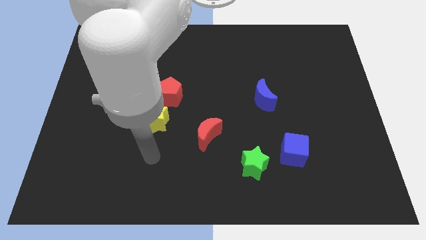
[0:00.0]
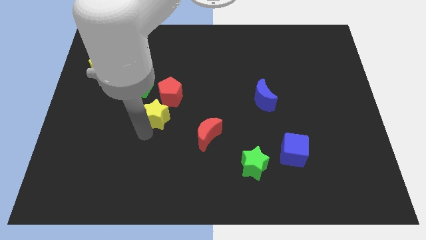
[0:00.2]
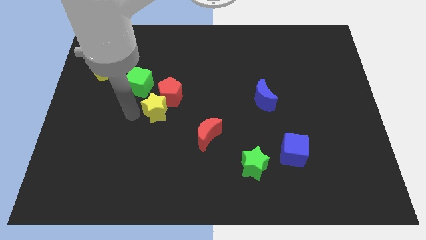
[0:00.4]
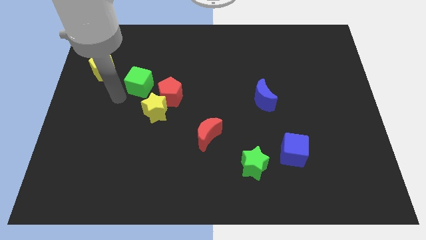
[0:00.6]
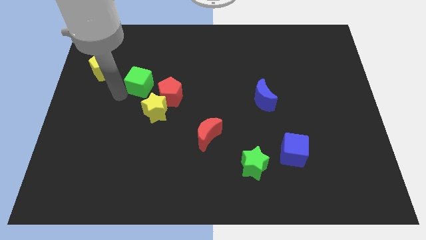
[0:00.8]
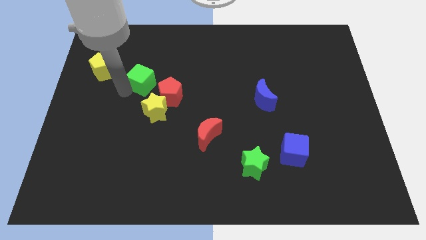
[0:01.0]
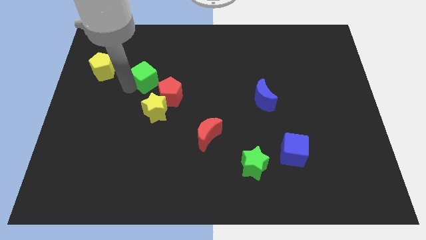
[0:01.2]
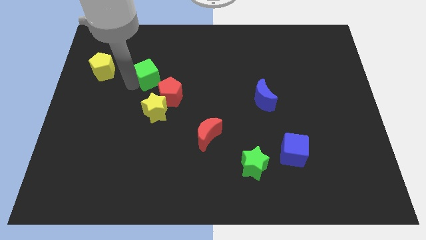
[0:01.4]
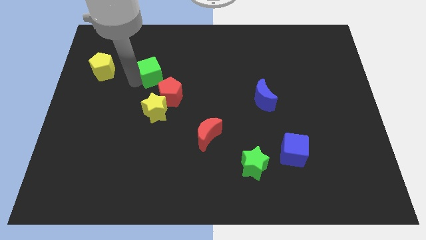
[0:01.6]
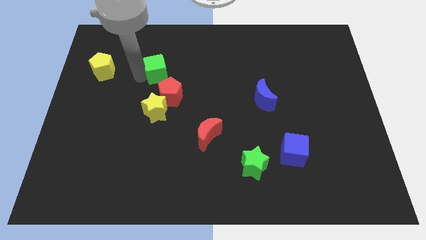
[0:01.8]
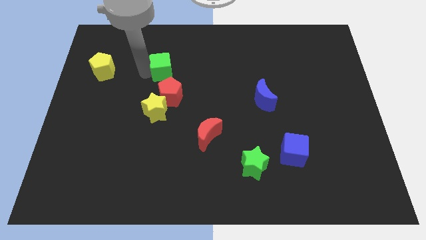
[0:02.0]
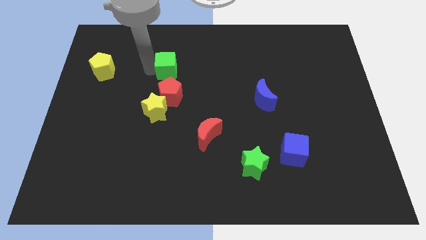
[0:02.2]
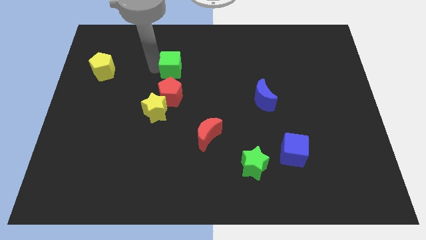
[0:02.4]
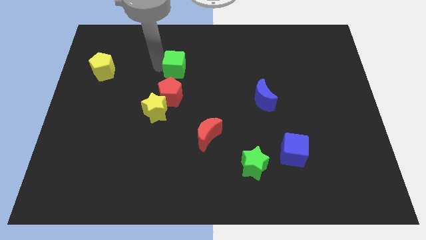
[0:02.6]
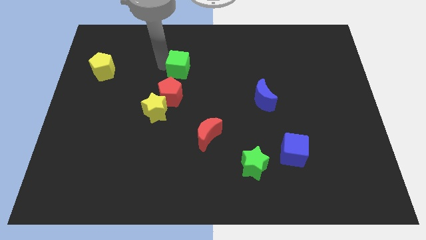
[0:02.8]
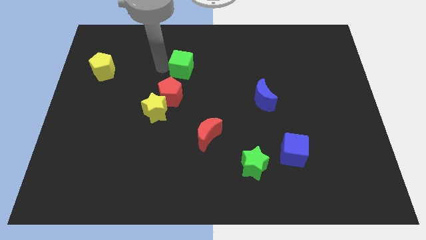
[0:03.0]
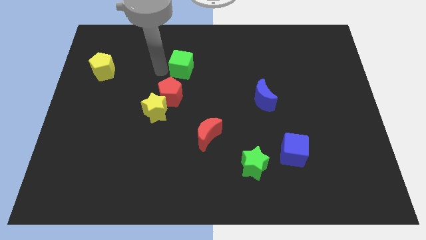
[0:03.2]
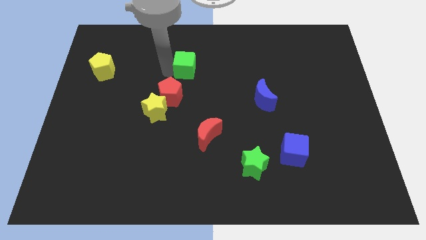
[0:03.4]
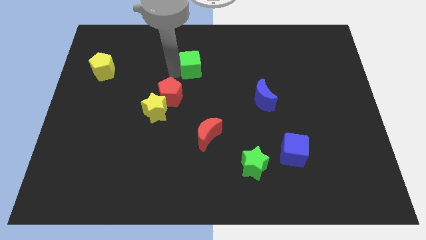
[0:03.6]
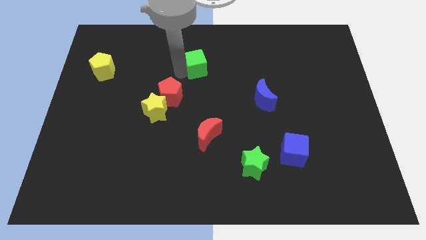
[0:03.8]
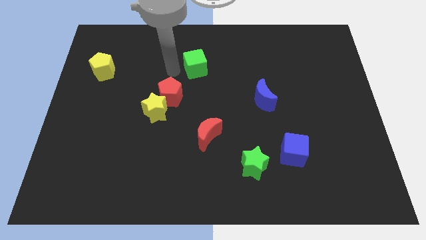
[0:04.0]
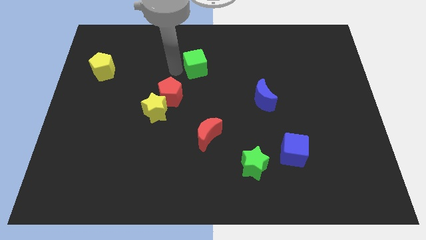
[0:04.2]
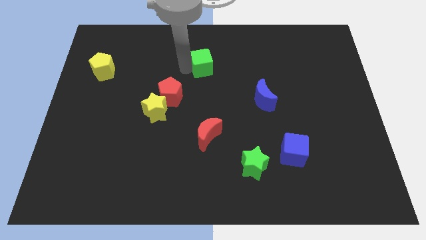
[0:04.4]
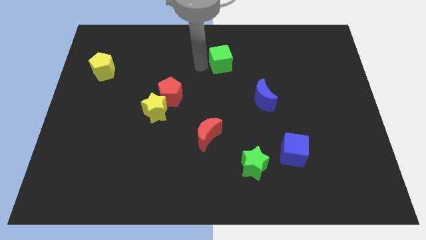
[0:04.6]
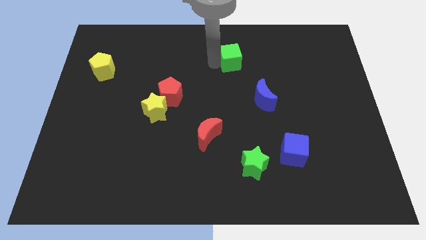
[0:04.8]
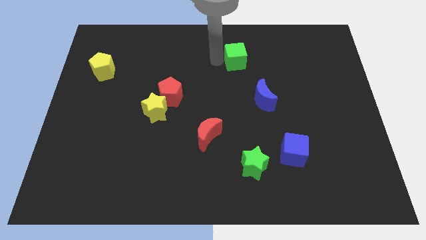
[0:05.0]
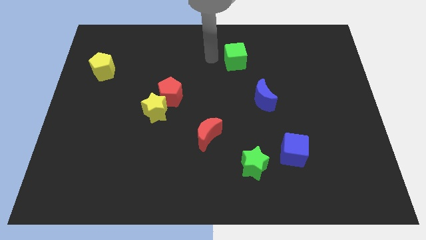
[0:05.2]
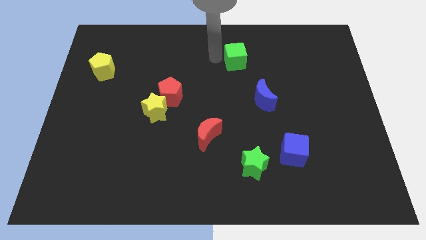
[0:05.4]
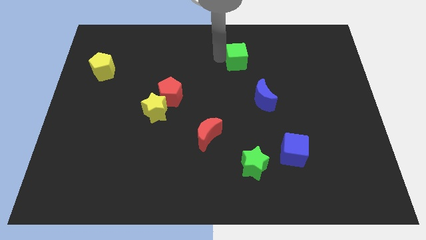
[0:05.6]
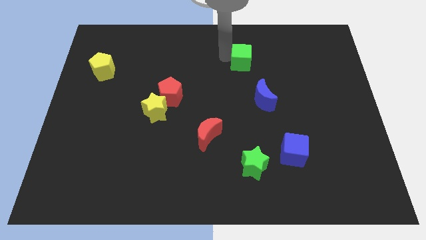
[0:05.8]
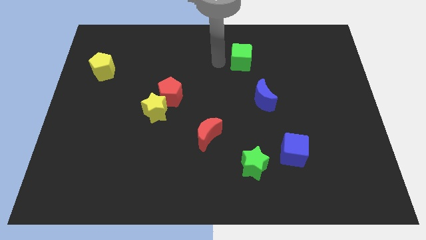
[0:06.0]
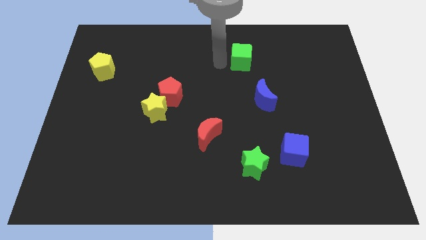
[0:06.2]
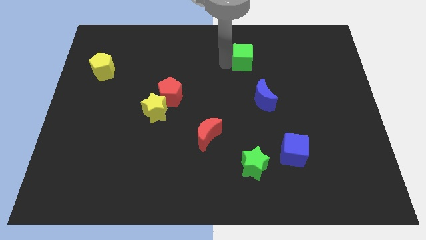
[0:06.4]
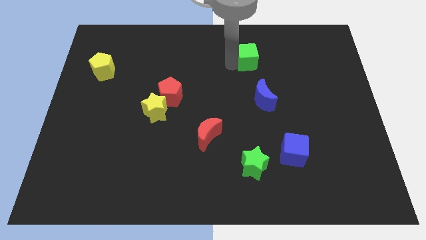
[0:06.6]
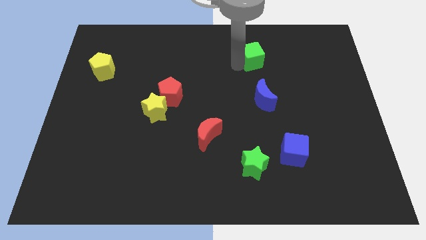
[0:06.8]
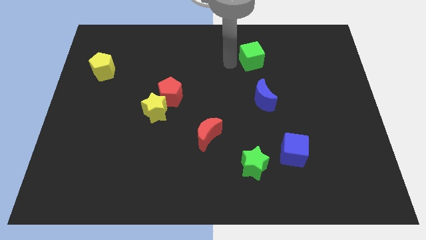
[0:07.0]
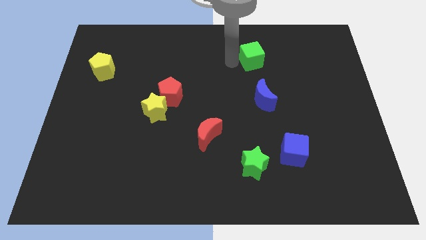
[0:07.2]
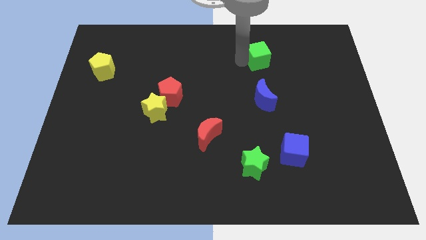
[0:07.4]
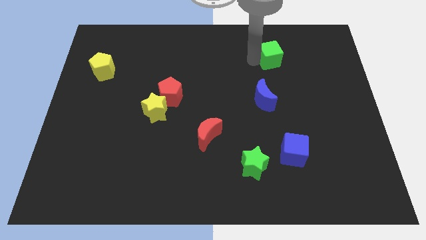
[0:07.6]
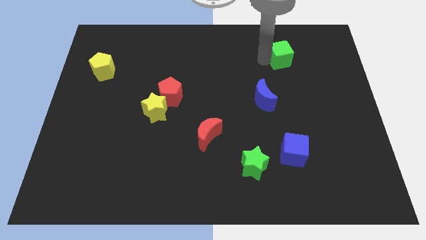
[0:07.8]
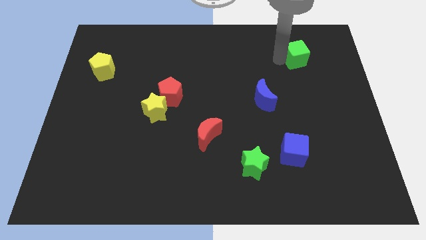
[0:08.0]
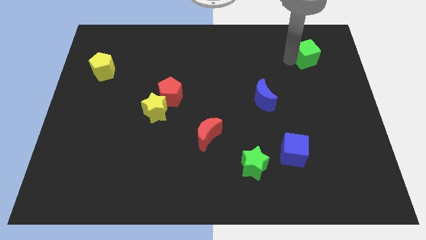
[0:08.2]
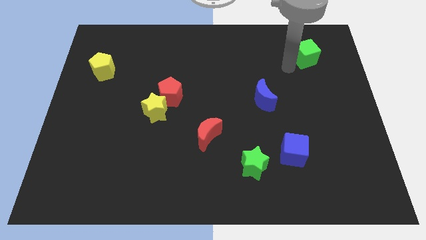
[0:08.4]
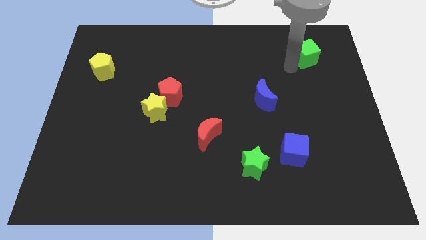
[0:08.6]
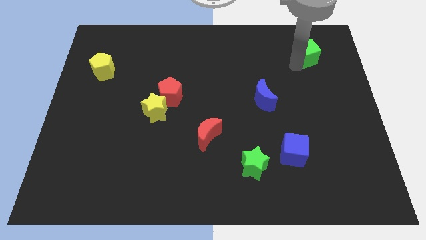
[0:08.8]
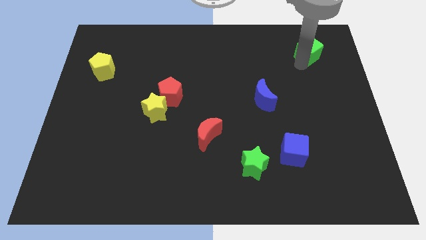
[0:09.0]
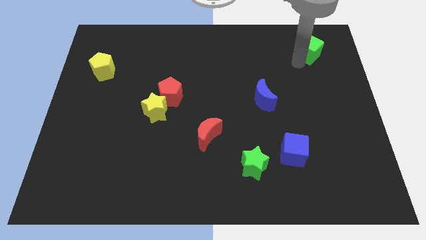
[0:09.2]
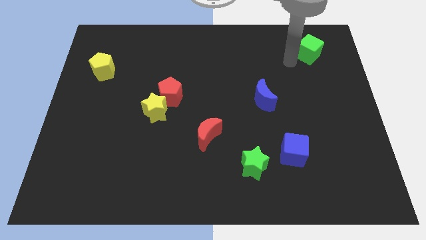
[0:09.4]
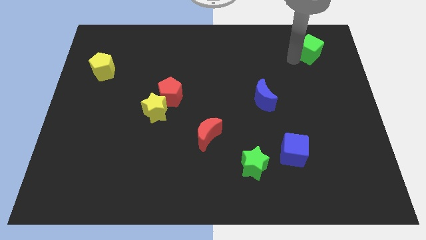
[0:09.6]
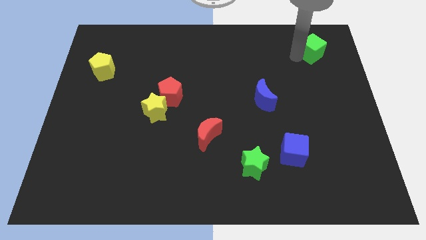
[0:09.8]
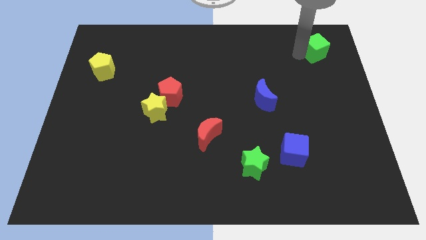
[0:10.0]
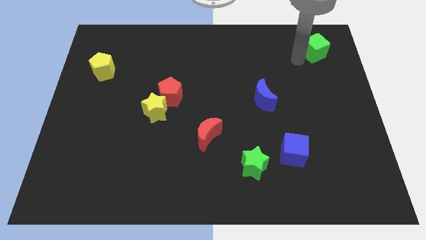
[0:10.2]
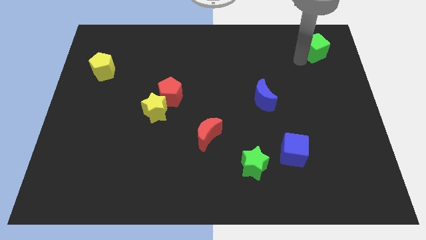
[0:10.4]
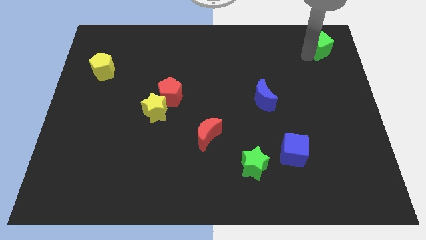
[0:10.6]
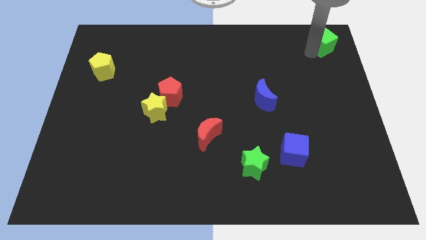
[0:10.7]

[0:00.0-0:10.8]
push the green cube to the top right

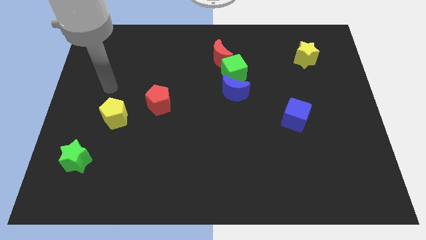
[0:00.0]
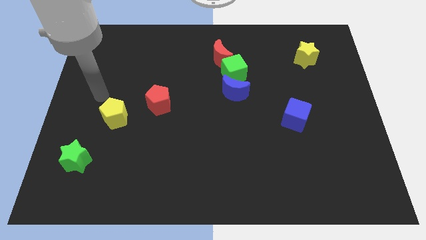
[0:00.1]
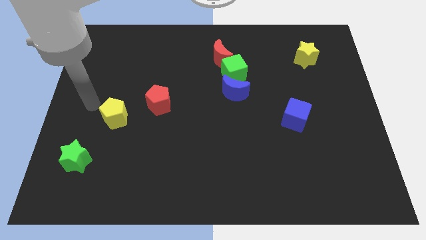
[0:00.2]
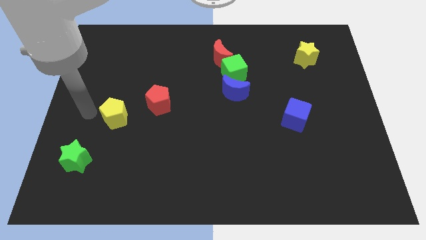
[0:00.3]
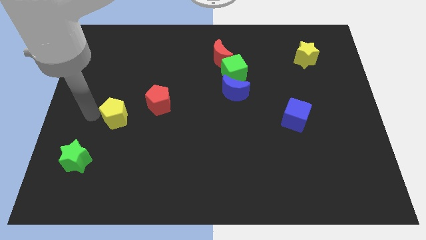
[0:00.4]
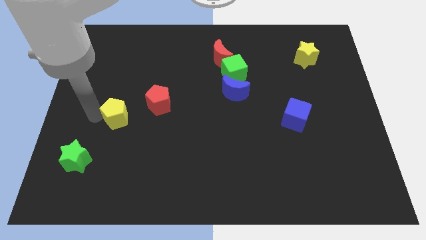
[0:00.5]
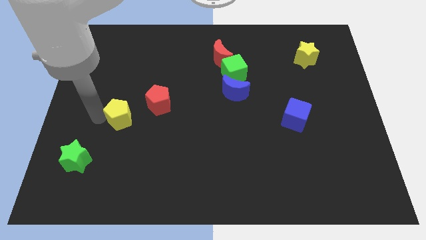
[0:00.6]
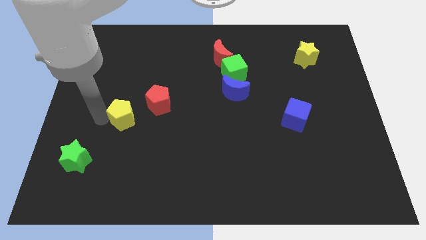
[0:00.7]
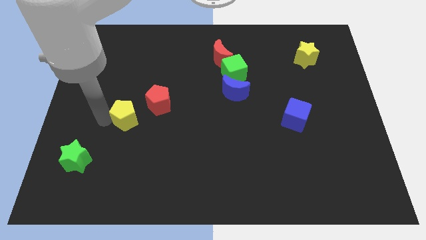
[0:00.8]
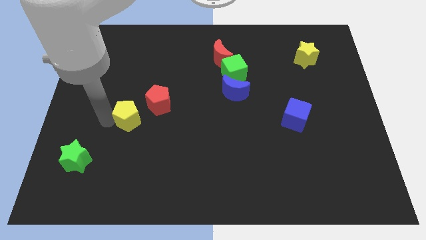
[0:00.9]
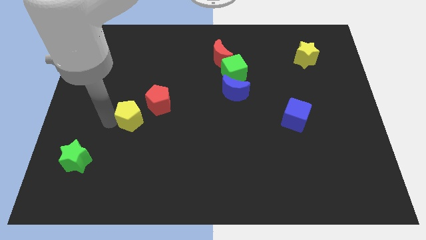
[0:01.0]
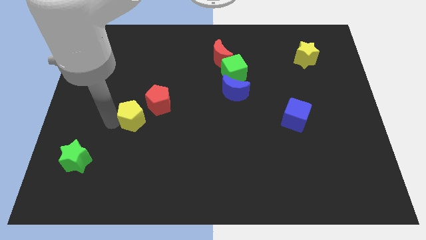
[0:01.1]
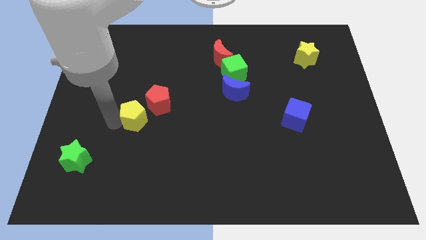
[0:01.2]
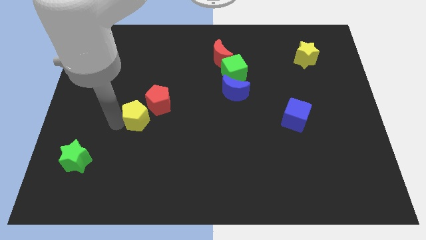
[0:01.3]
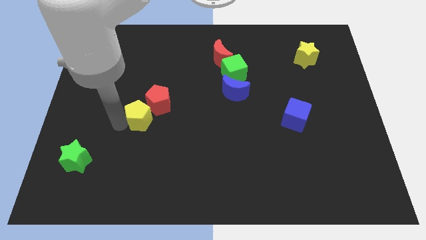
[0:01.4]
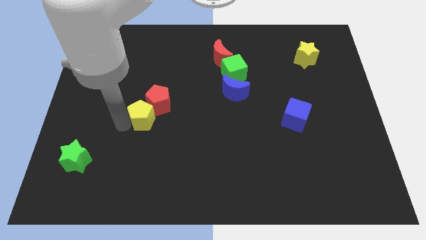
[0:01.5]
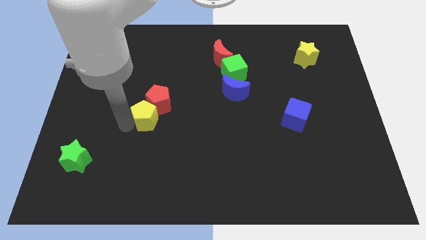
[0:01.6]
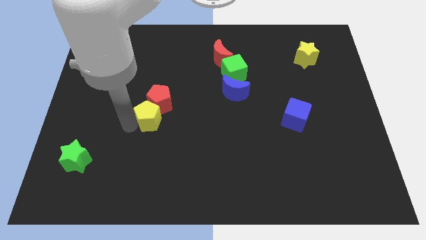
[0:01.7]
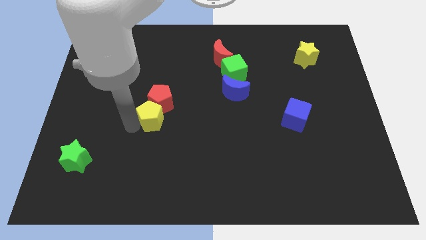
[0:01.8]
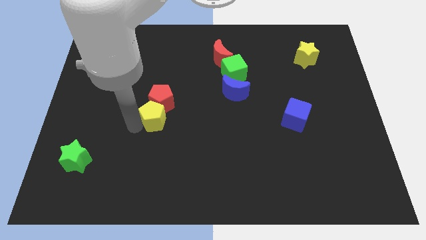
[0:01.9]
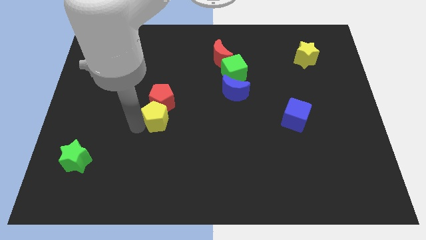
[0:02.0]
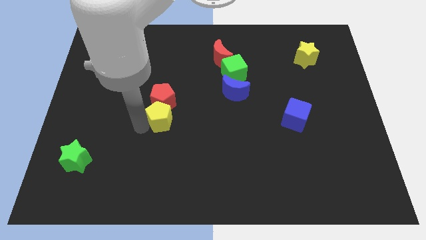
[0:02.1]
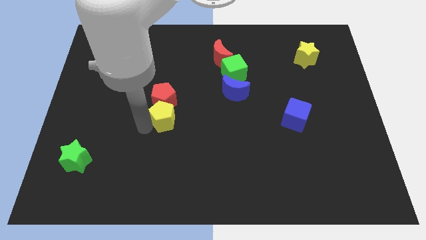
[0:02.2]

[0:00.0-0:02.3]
move the yellow pentagon to the middle of the board

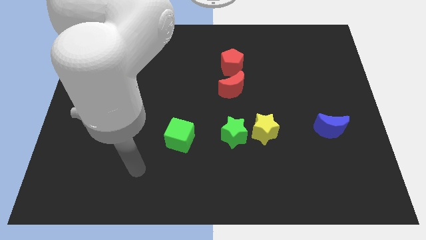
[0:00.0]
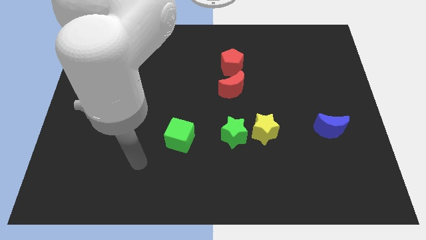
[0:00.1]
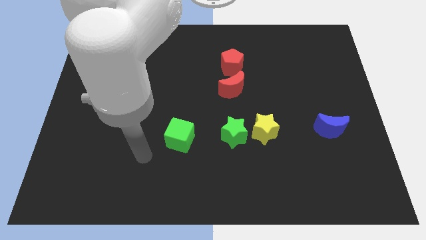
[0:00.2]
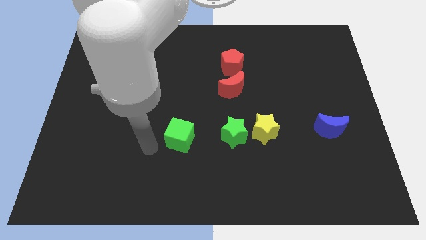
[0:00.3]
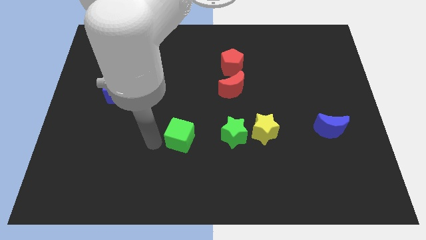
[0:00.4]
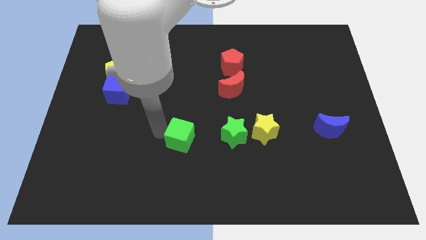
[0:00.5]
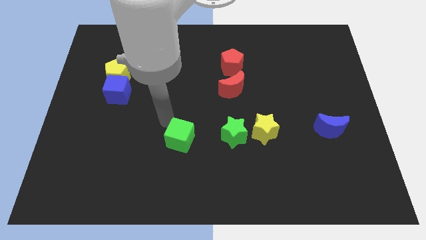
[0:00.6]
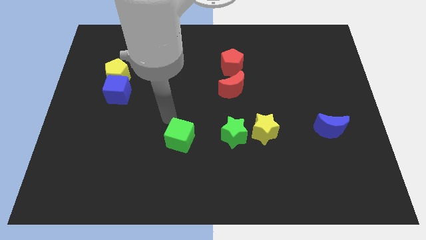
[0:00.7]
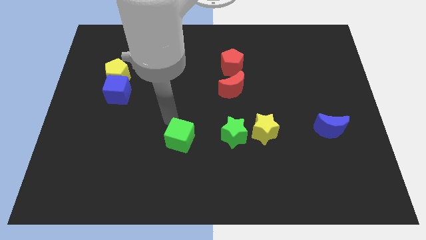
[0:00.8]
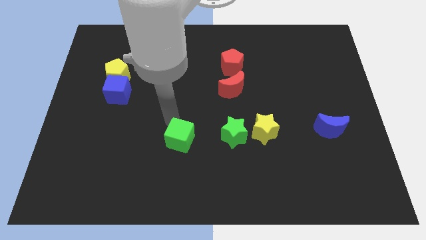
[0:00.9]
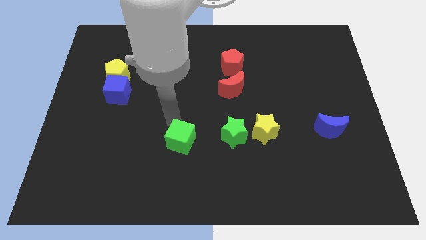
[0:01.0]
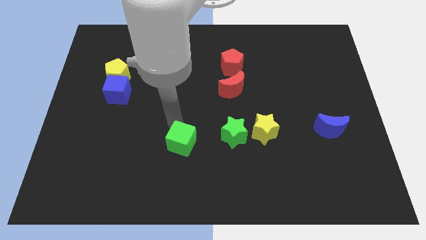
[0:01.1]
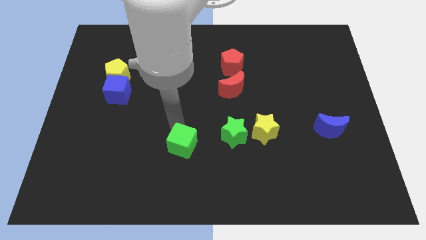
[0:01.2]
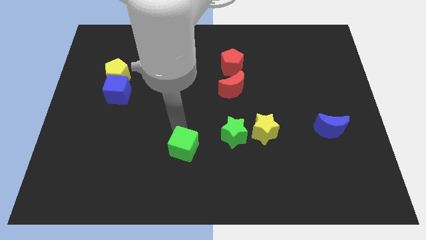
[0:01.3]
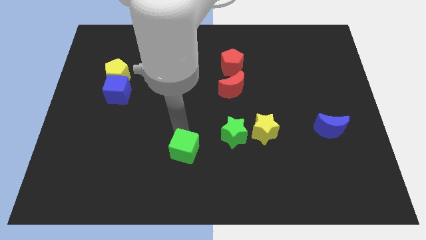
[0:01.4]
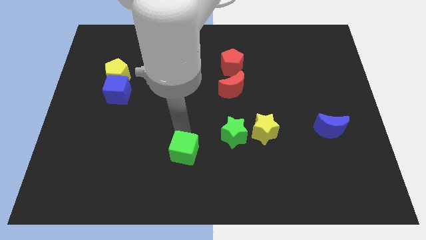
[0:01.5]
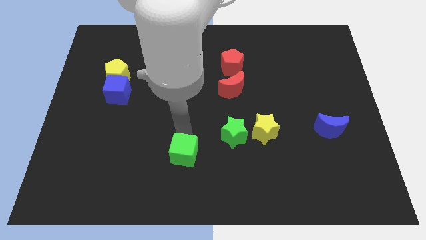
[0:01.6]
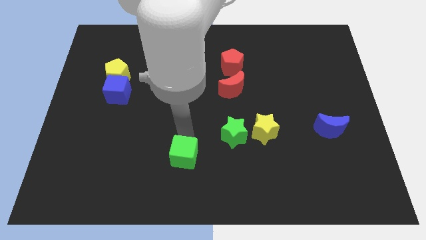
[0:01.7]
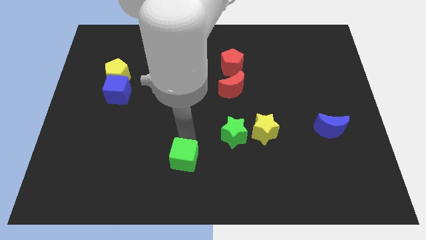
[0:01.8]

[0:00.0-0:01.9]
push the green cube to the bottom
